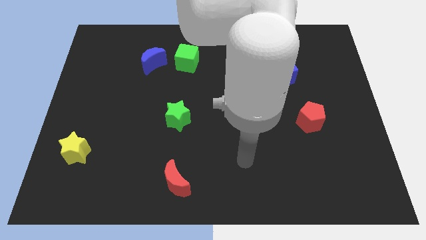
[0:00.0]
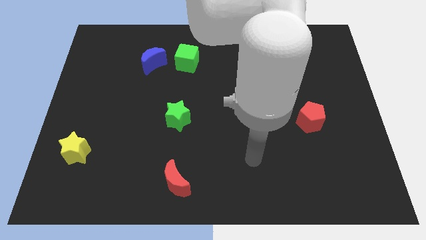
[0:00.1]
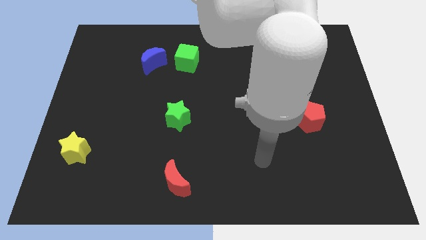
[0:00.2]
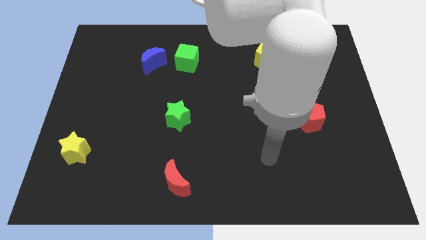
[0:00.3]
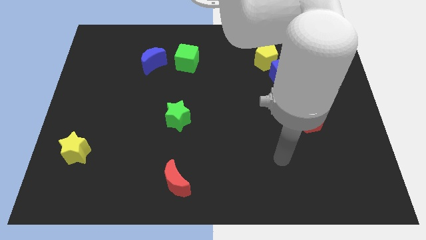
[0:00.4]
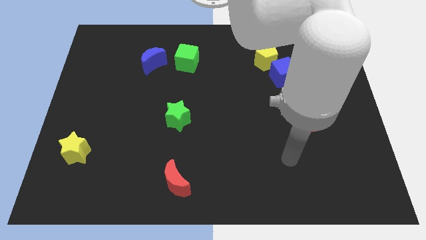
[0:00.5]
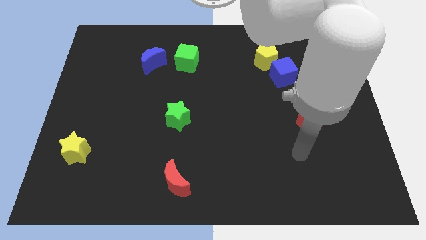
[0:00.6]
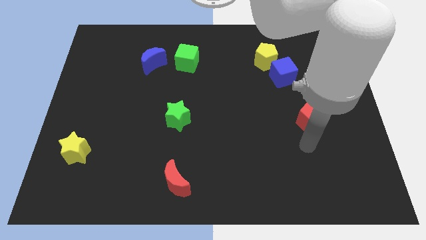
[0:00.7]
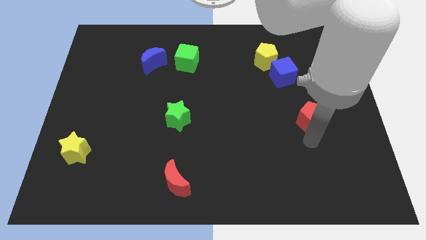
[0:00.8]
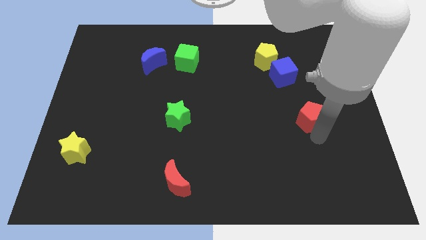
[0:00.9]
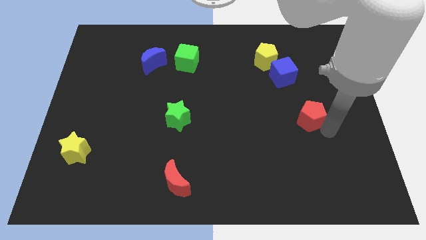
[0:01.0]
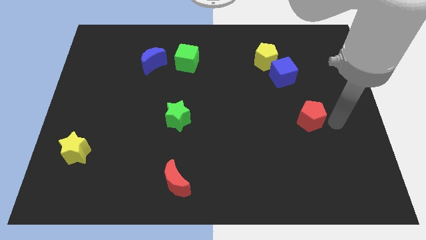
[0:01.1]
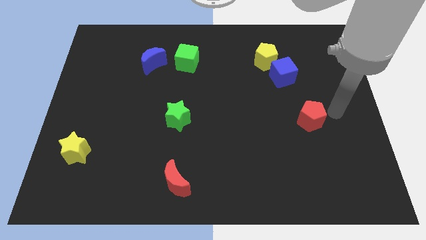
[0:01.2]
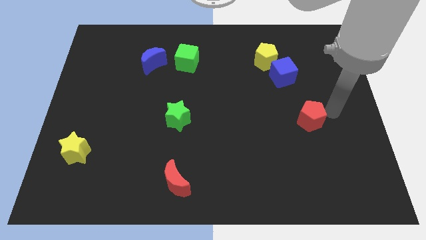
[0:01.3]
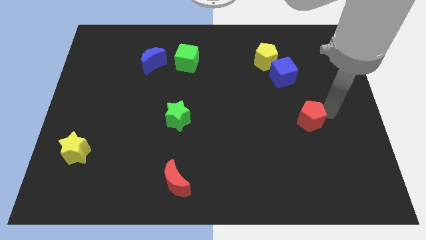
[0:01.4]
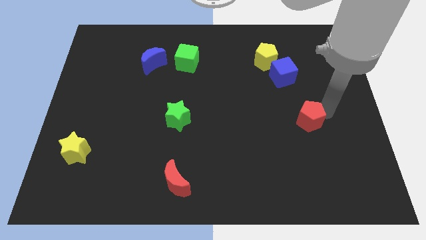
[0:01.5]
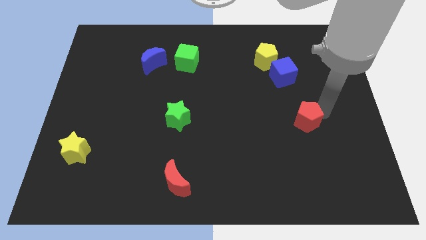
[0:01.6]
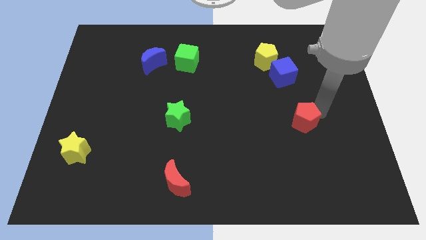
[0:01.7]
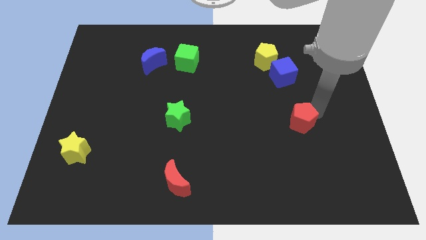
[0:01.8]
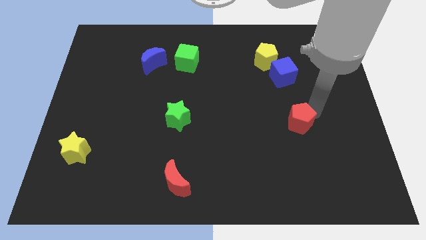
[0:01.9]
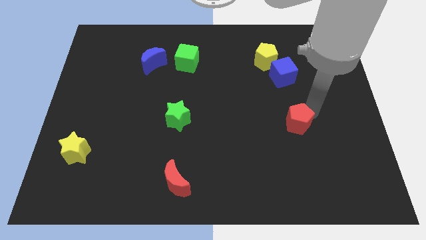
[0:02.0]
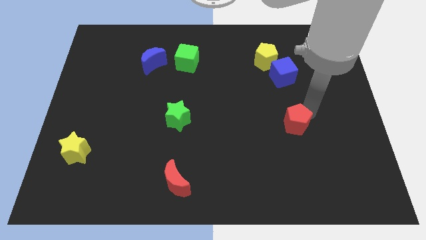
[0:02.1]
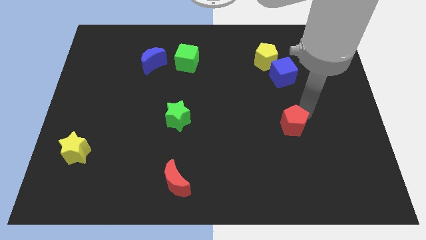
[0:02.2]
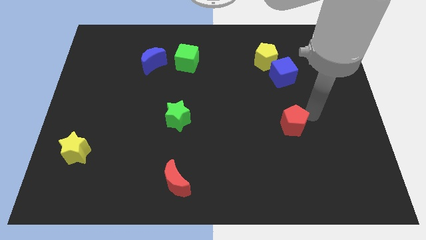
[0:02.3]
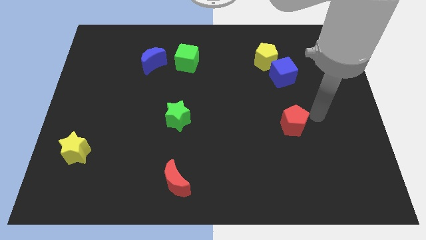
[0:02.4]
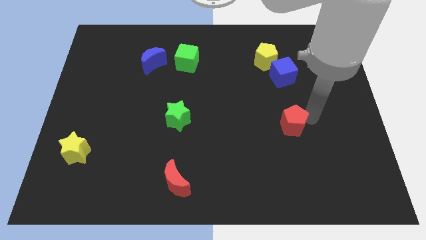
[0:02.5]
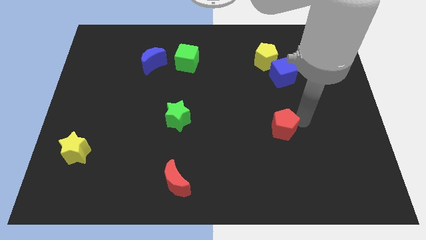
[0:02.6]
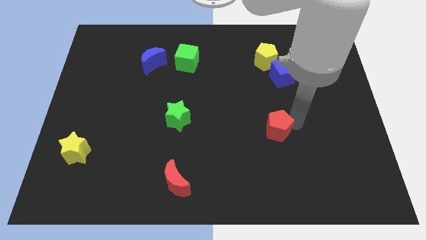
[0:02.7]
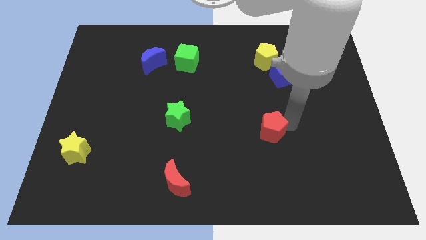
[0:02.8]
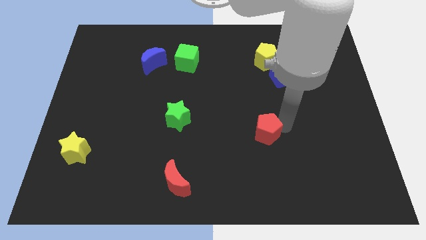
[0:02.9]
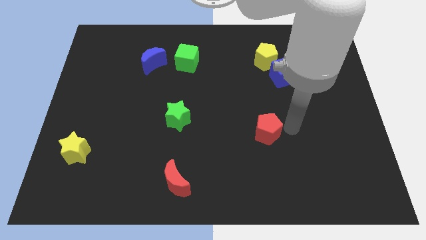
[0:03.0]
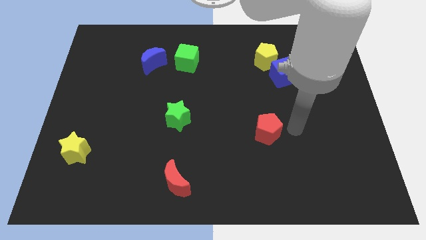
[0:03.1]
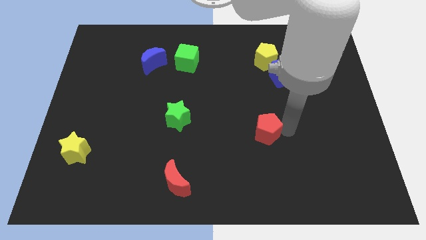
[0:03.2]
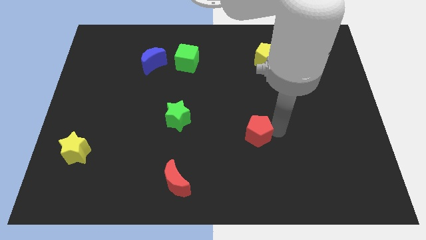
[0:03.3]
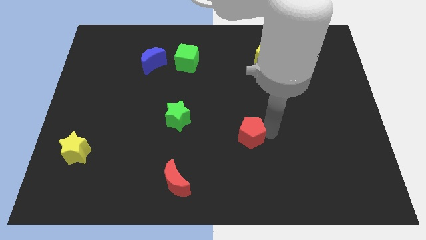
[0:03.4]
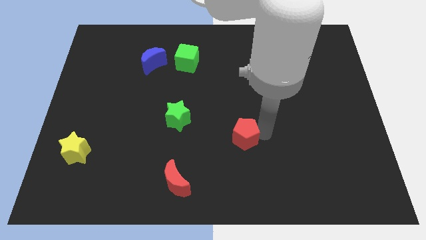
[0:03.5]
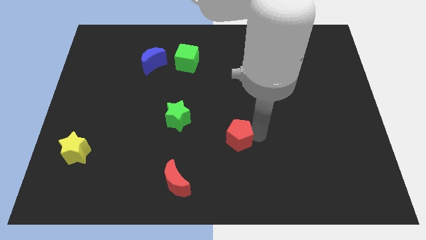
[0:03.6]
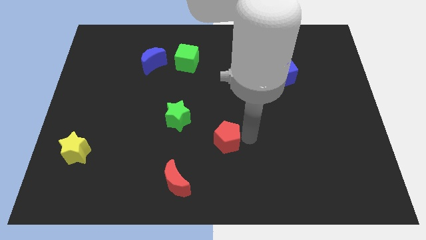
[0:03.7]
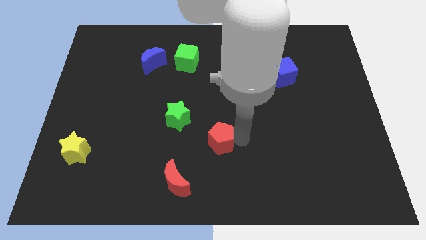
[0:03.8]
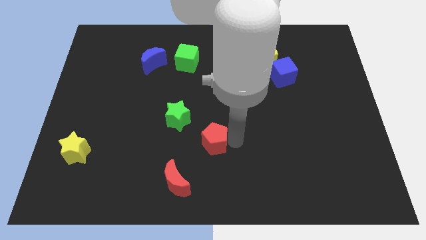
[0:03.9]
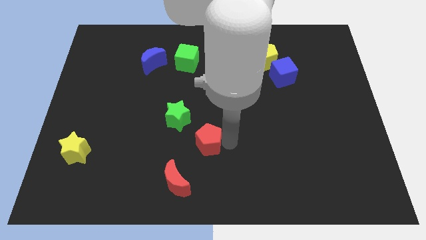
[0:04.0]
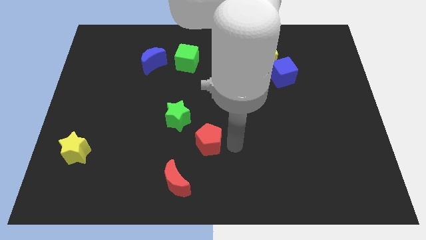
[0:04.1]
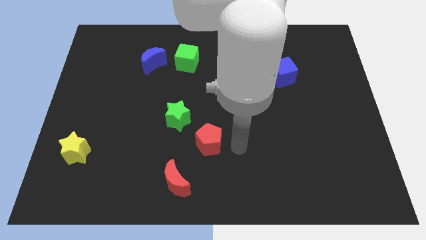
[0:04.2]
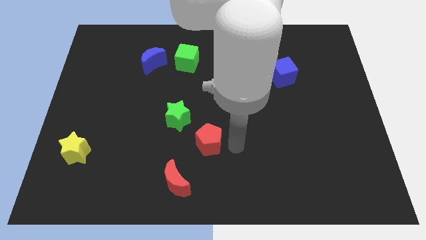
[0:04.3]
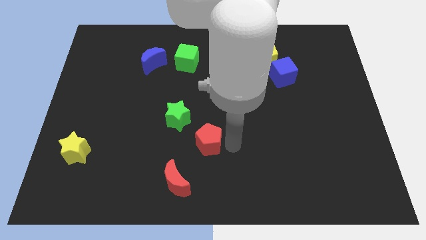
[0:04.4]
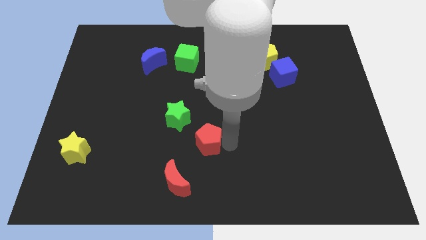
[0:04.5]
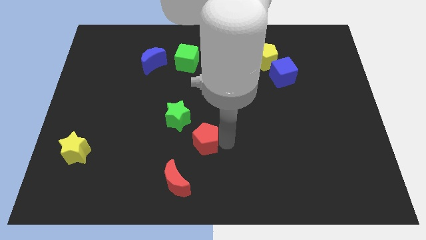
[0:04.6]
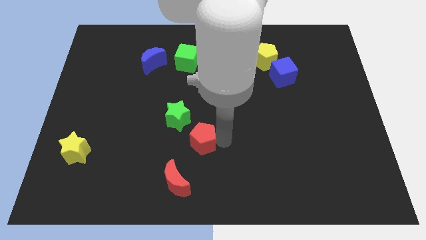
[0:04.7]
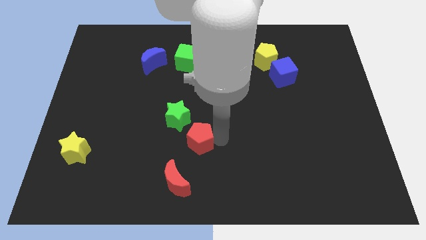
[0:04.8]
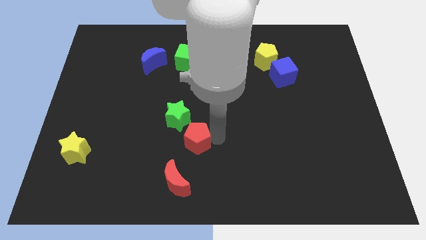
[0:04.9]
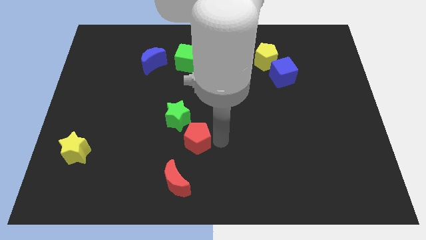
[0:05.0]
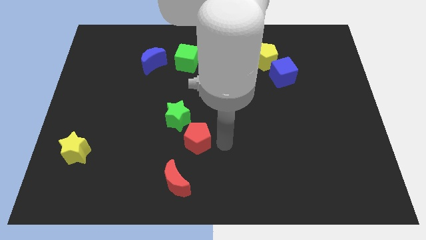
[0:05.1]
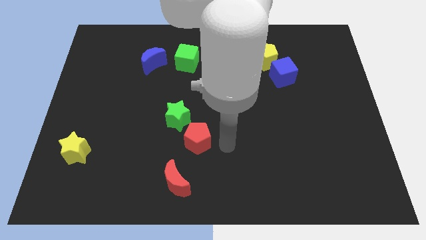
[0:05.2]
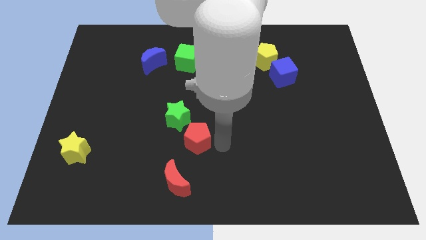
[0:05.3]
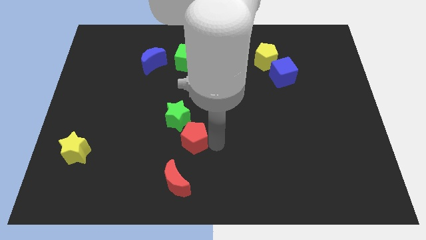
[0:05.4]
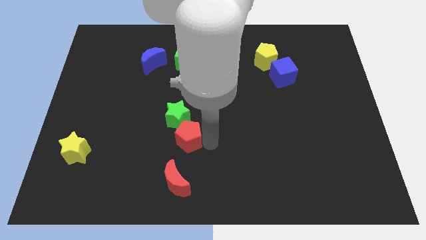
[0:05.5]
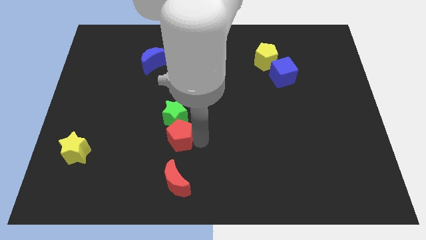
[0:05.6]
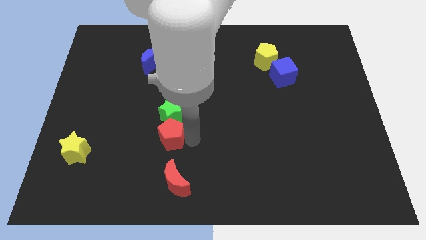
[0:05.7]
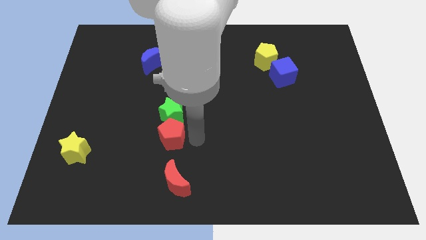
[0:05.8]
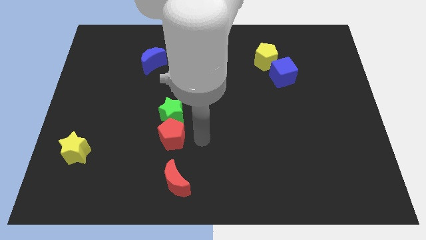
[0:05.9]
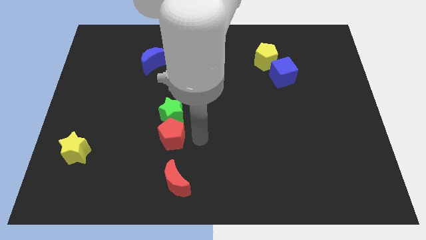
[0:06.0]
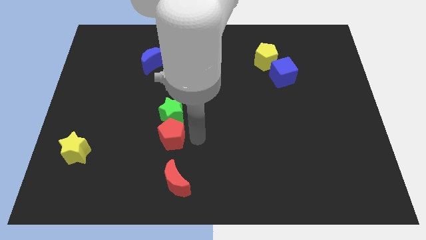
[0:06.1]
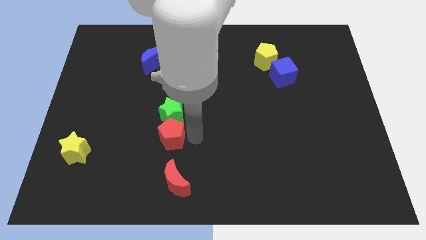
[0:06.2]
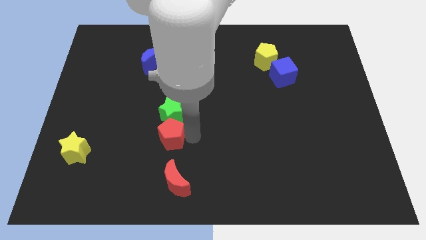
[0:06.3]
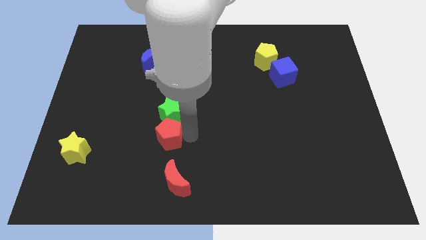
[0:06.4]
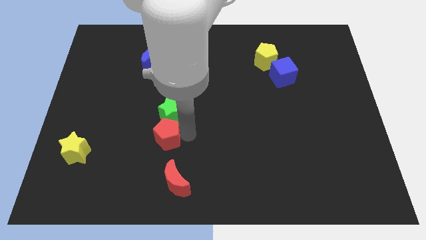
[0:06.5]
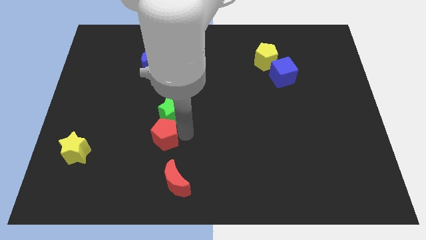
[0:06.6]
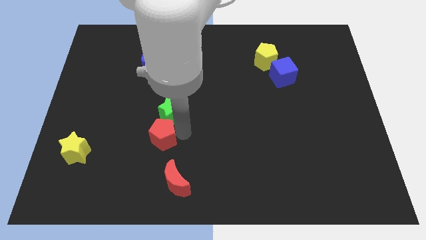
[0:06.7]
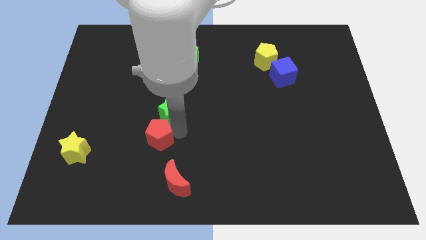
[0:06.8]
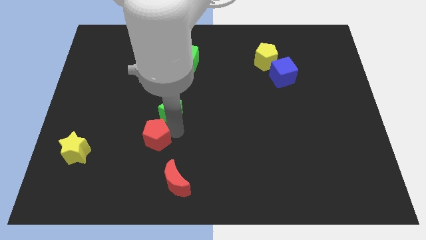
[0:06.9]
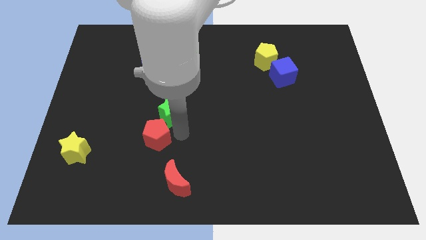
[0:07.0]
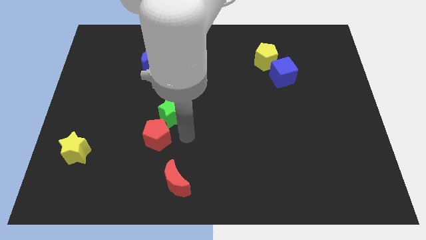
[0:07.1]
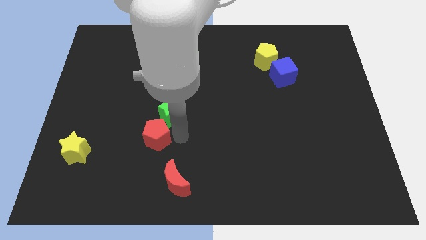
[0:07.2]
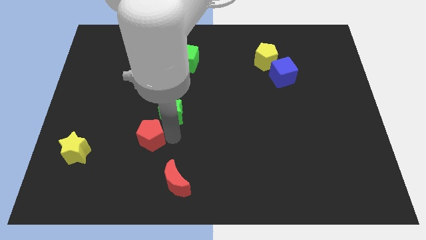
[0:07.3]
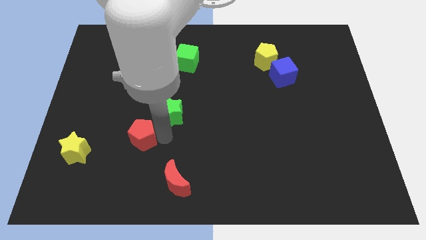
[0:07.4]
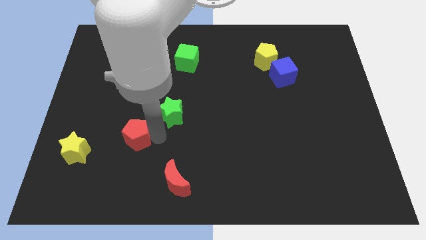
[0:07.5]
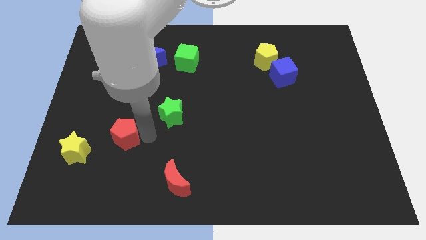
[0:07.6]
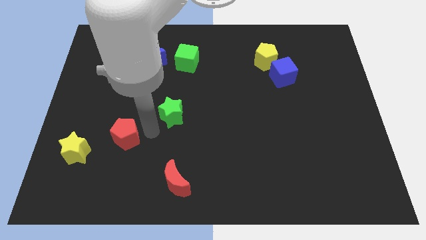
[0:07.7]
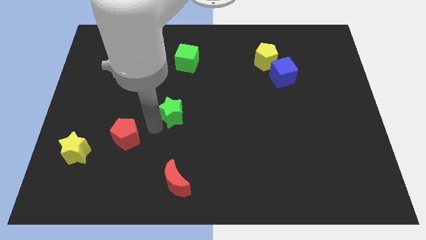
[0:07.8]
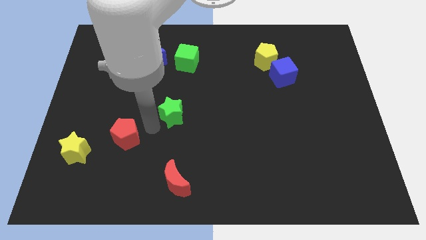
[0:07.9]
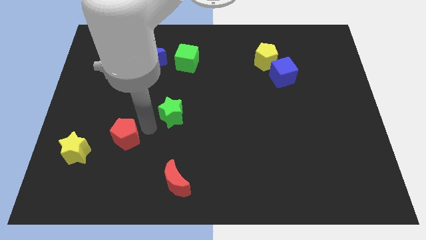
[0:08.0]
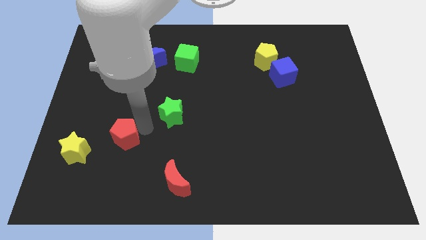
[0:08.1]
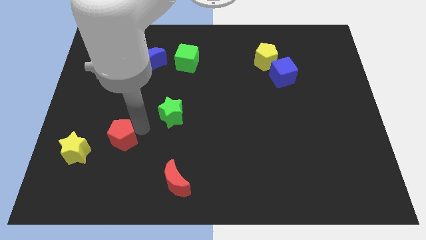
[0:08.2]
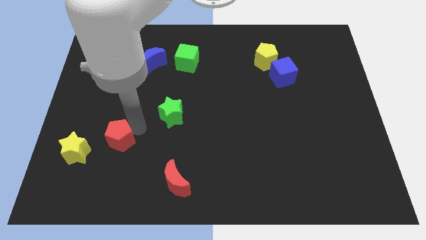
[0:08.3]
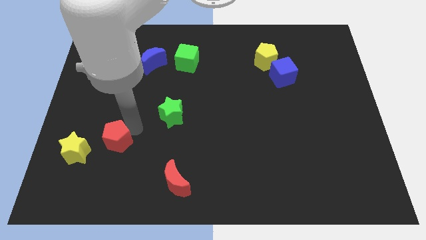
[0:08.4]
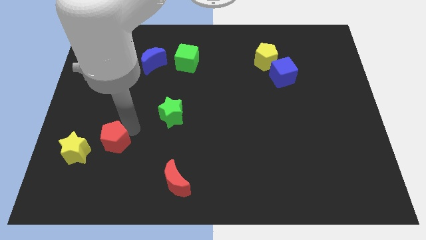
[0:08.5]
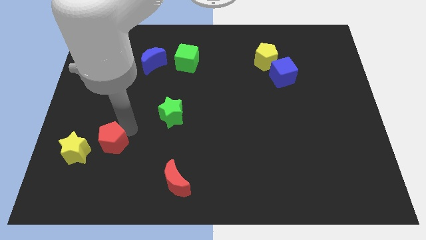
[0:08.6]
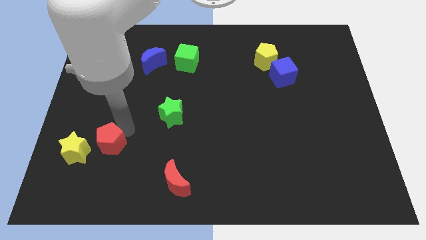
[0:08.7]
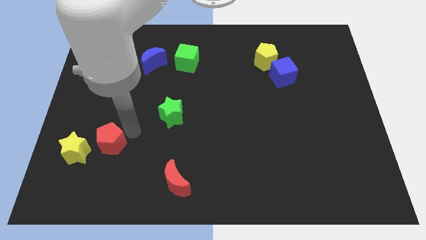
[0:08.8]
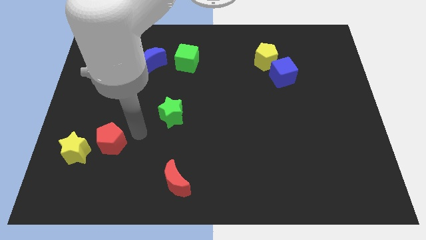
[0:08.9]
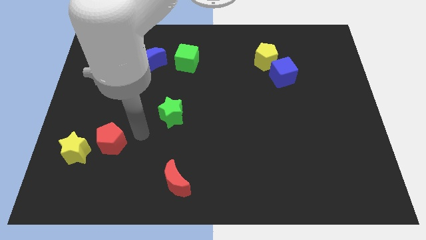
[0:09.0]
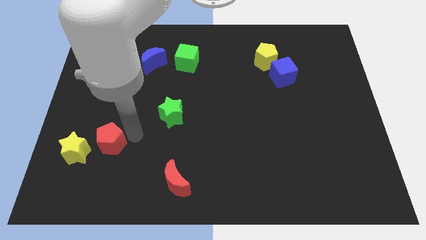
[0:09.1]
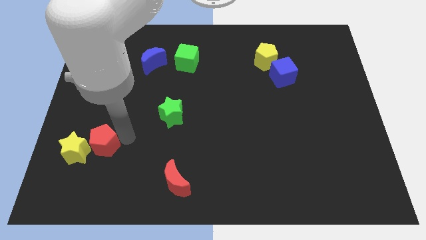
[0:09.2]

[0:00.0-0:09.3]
slide the red pentagon next to the yellow star
